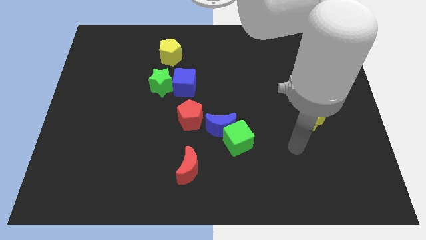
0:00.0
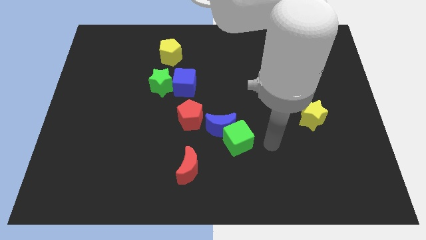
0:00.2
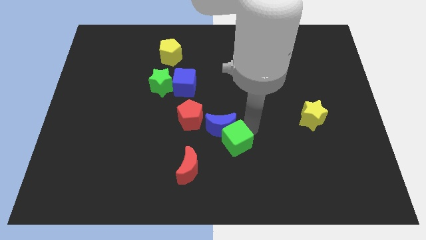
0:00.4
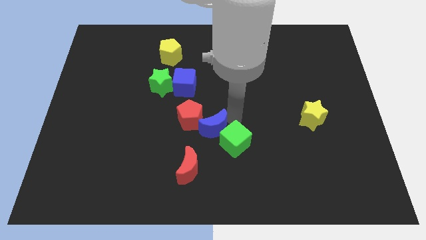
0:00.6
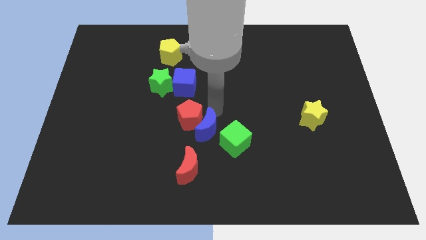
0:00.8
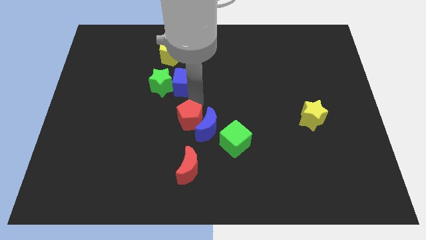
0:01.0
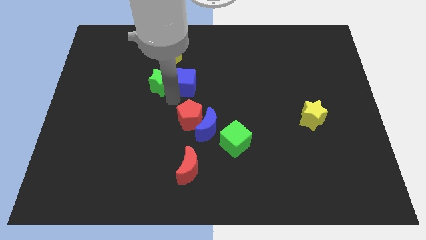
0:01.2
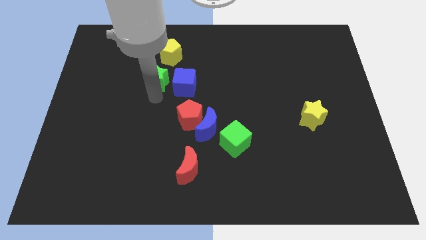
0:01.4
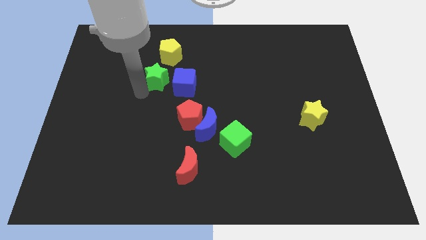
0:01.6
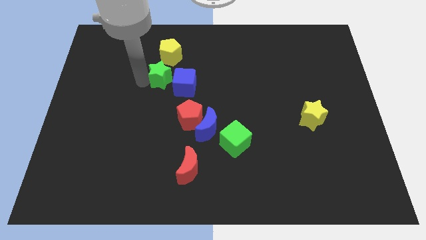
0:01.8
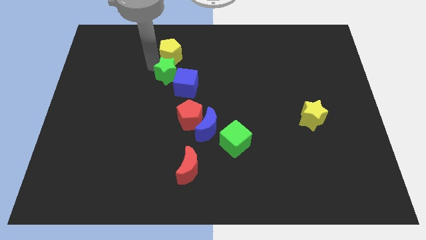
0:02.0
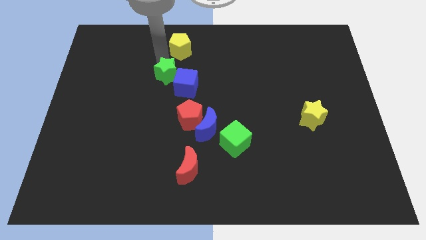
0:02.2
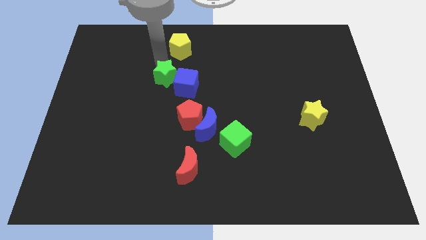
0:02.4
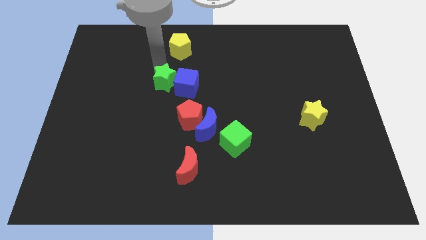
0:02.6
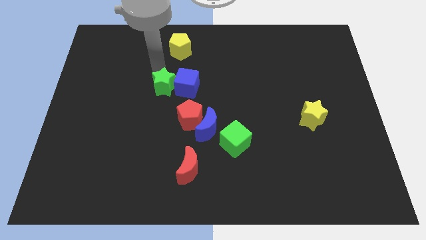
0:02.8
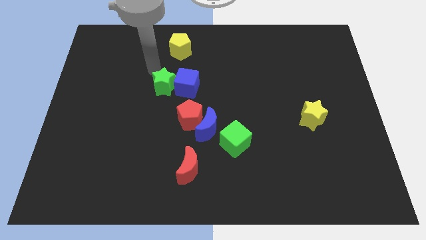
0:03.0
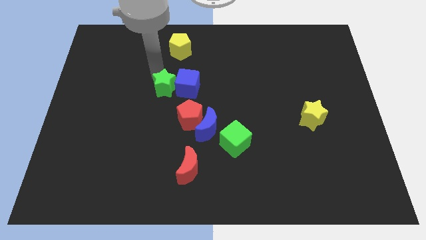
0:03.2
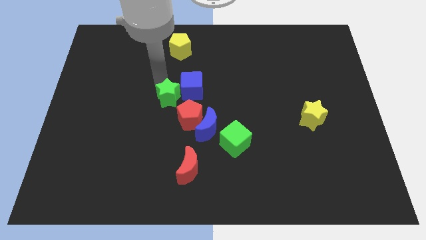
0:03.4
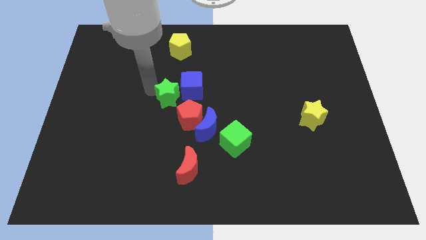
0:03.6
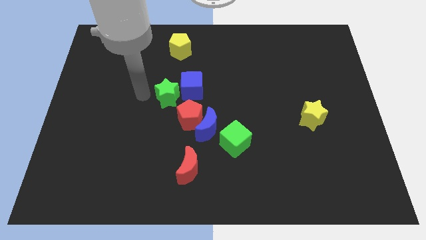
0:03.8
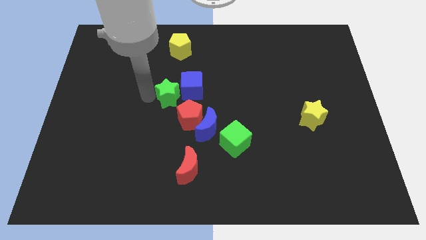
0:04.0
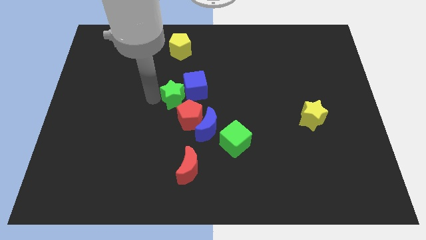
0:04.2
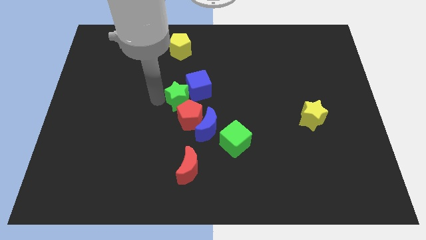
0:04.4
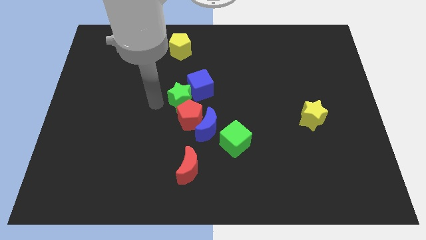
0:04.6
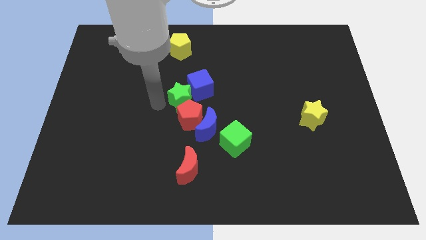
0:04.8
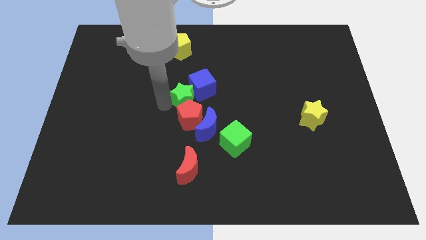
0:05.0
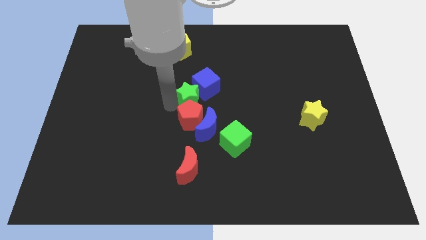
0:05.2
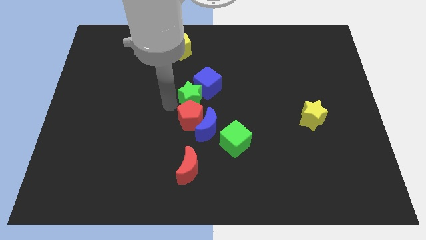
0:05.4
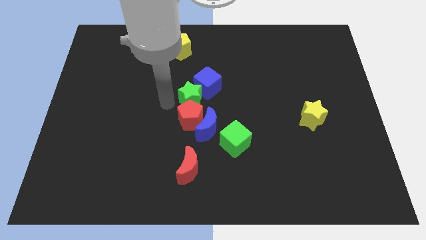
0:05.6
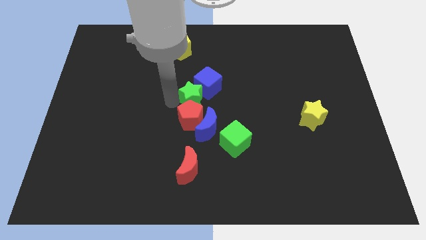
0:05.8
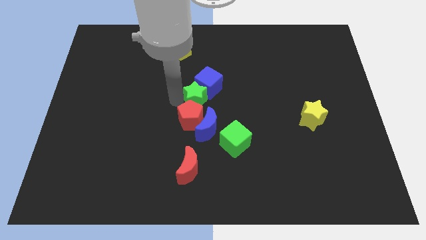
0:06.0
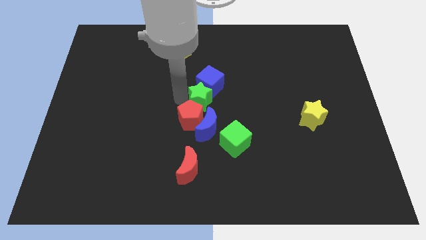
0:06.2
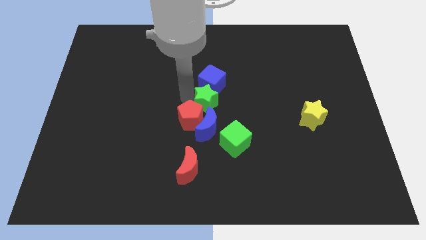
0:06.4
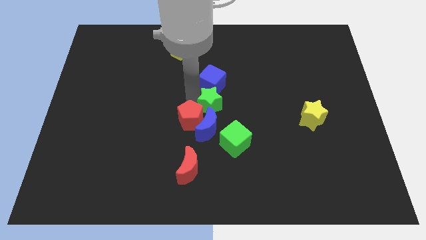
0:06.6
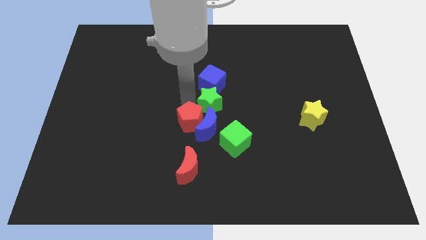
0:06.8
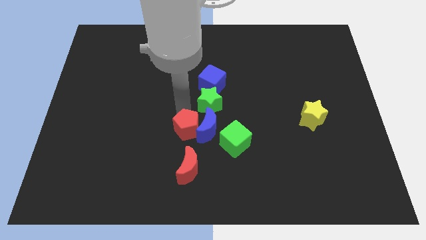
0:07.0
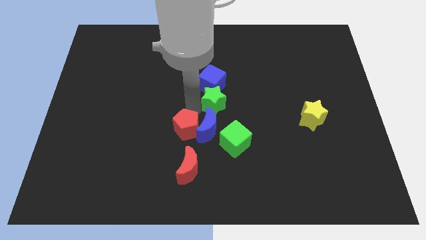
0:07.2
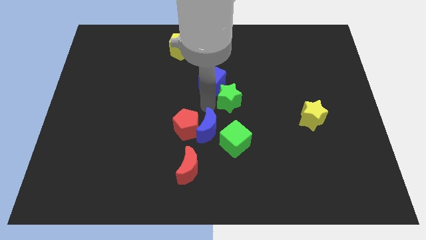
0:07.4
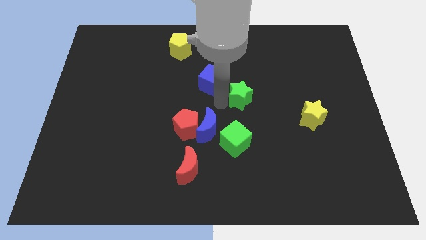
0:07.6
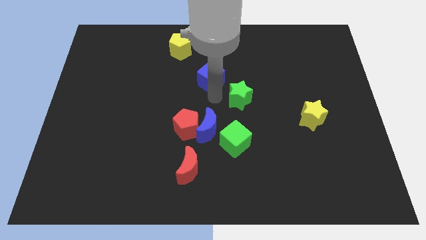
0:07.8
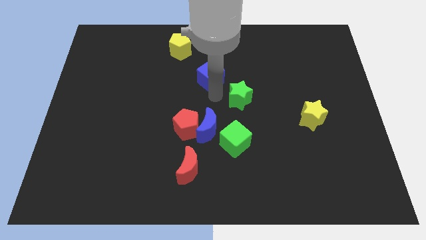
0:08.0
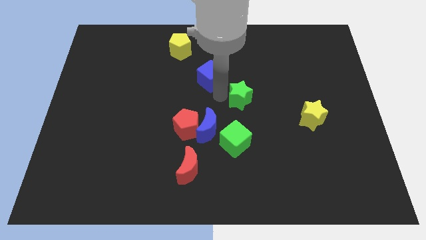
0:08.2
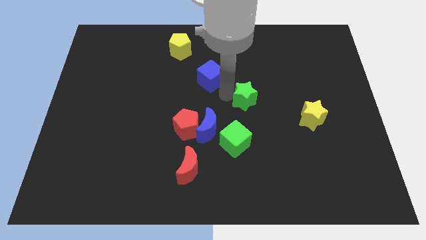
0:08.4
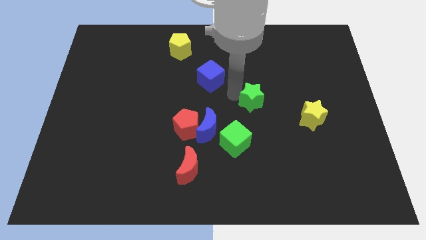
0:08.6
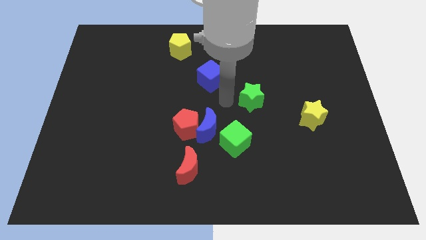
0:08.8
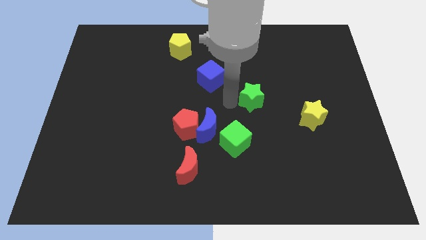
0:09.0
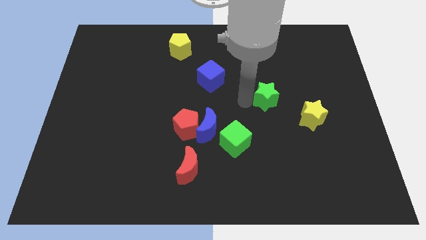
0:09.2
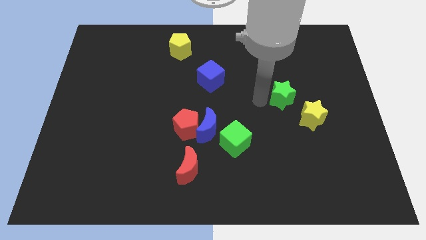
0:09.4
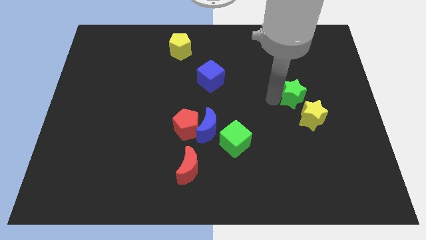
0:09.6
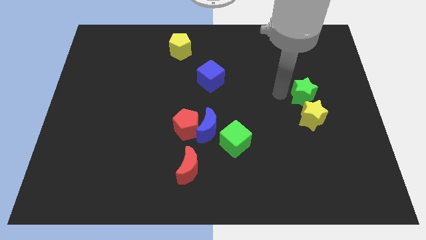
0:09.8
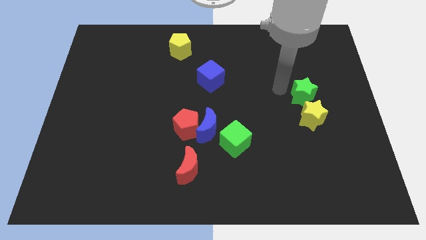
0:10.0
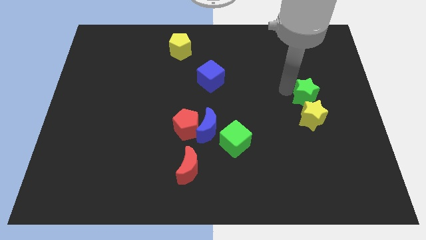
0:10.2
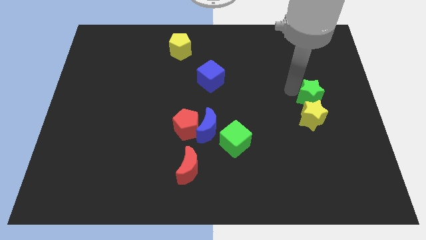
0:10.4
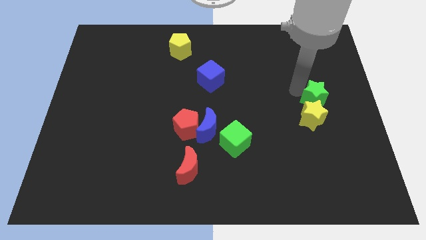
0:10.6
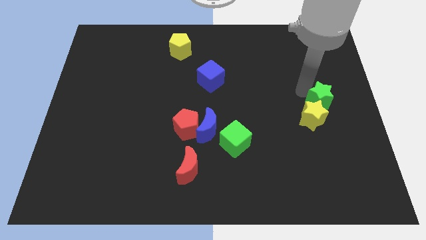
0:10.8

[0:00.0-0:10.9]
push the green star to the right side

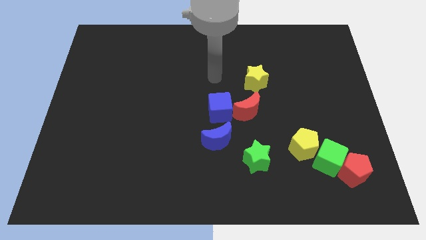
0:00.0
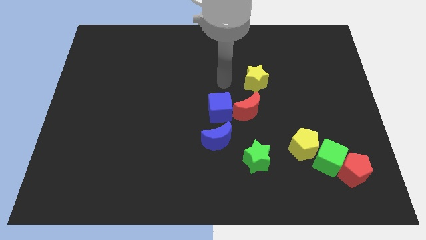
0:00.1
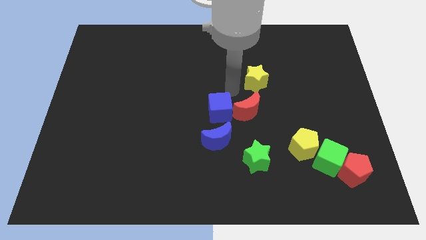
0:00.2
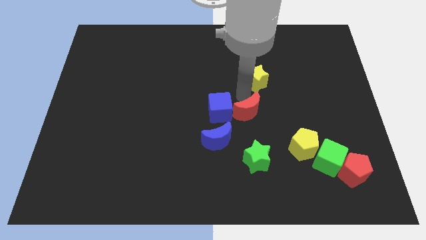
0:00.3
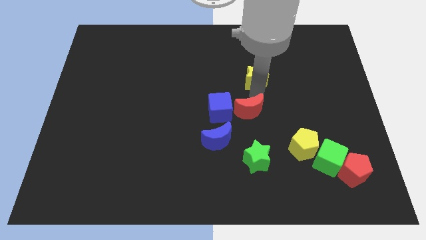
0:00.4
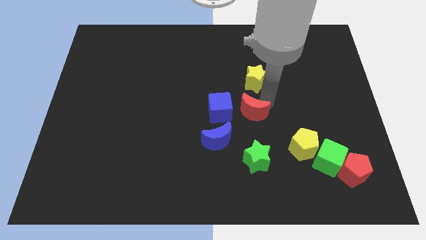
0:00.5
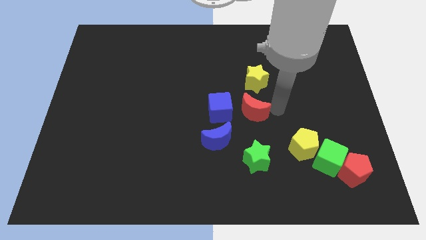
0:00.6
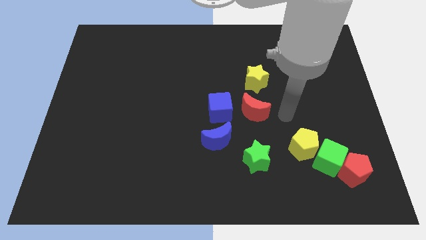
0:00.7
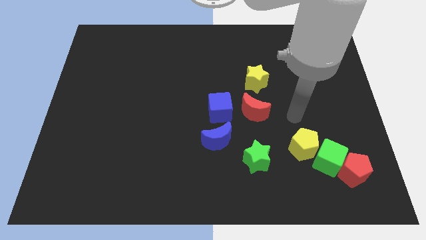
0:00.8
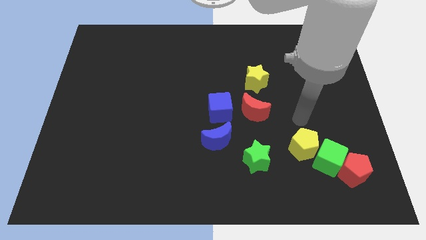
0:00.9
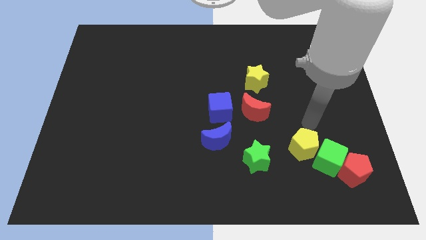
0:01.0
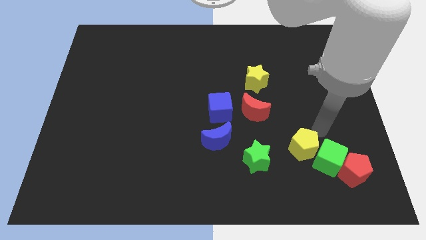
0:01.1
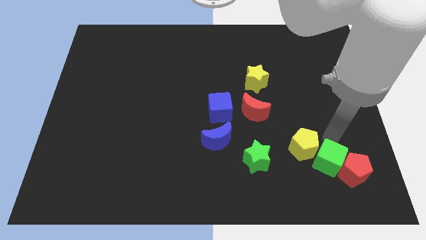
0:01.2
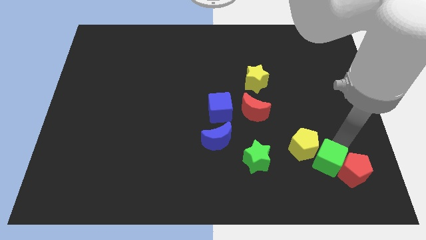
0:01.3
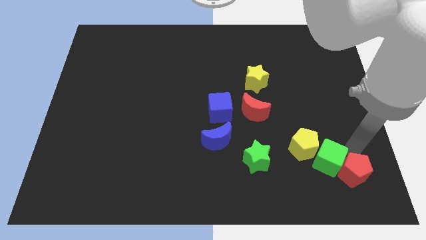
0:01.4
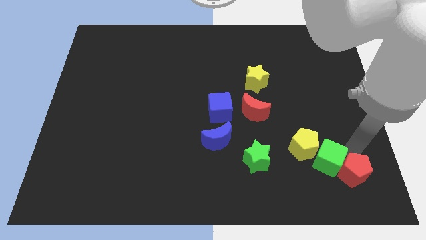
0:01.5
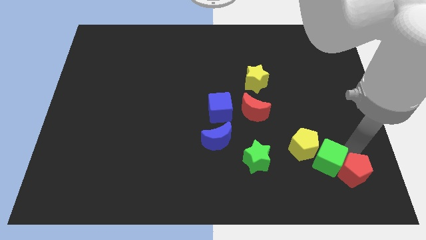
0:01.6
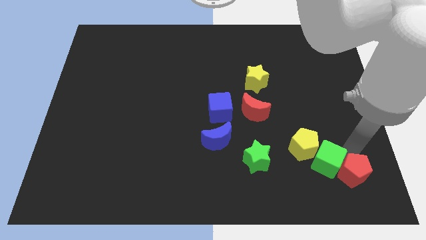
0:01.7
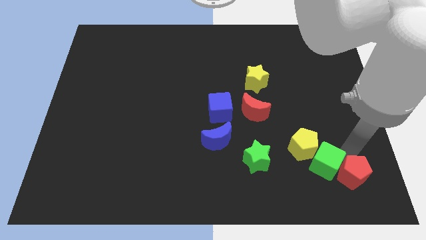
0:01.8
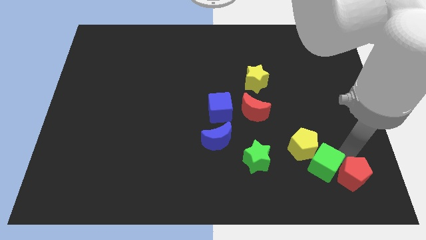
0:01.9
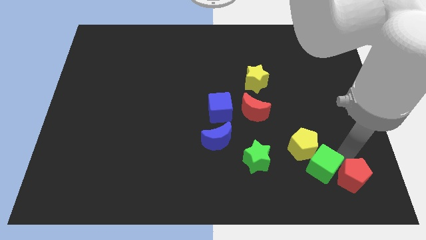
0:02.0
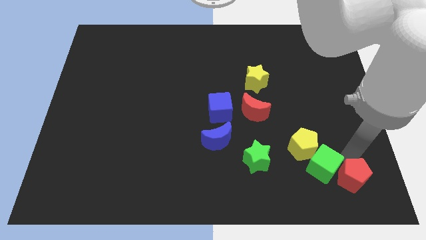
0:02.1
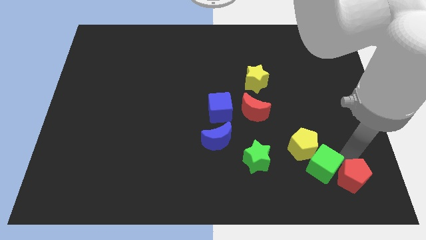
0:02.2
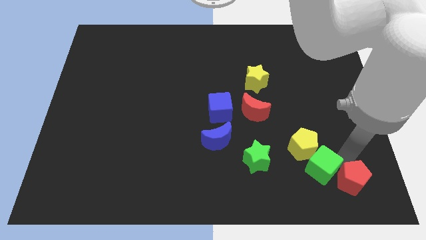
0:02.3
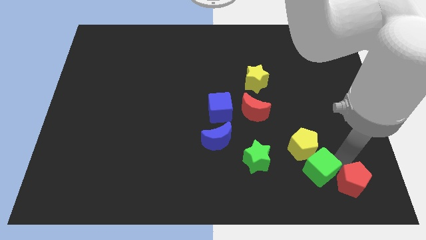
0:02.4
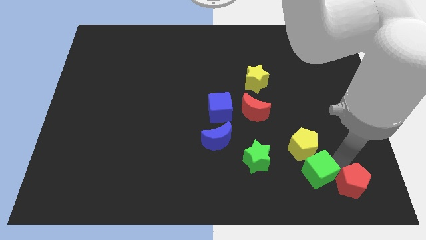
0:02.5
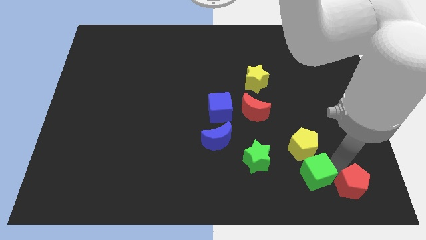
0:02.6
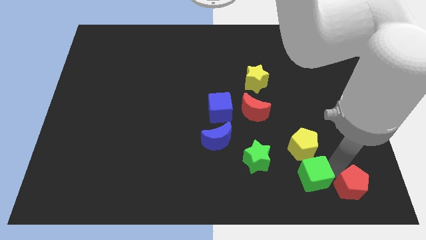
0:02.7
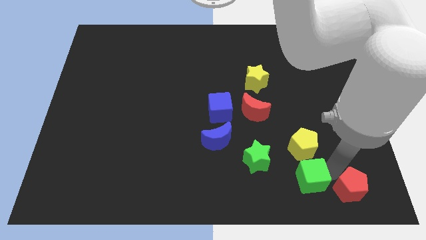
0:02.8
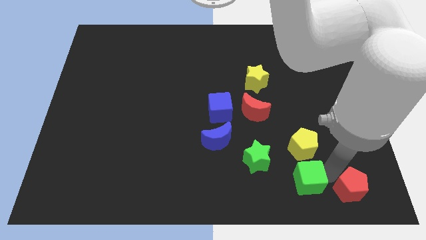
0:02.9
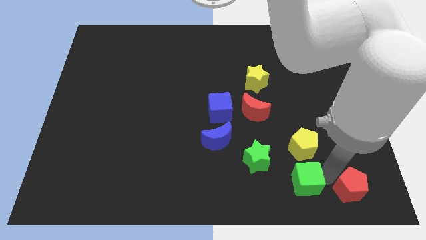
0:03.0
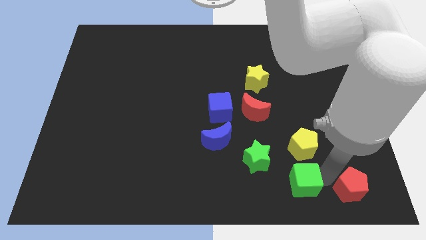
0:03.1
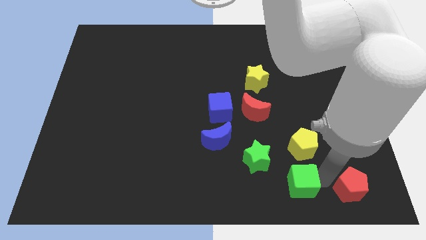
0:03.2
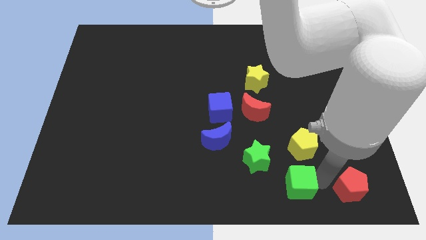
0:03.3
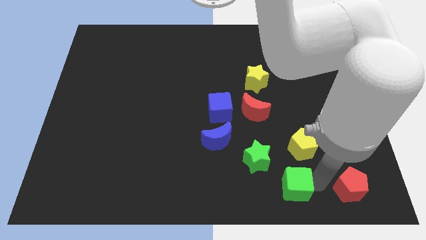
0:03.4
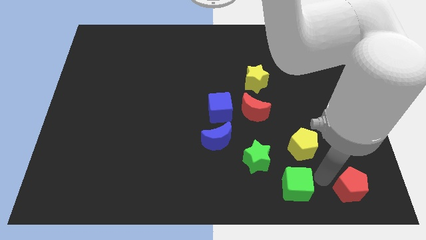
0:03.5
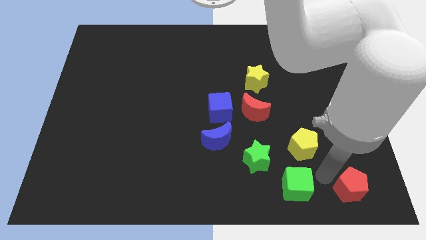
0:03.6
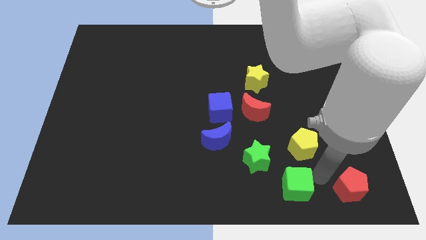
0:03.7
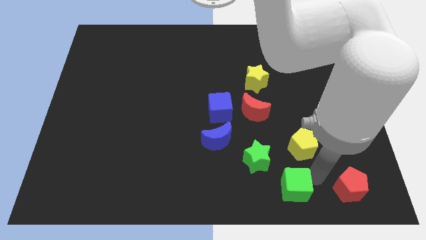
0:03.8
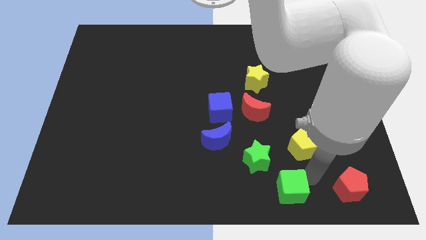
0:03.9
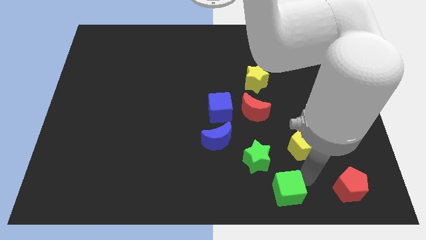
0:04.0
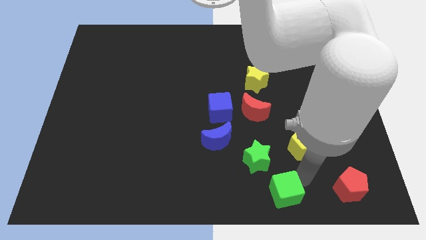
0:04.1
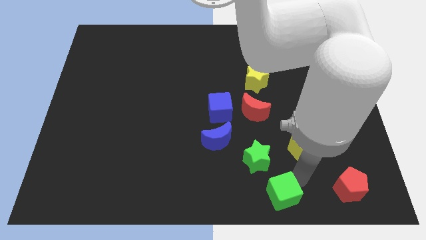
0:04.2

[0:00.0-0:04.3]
move the green cube to the bottom
